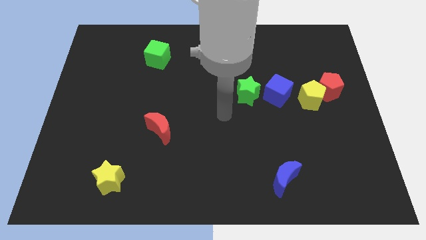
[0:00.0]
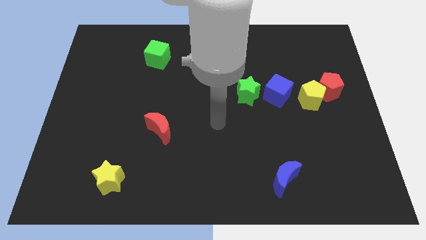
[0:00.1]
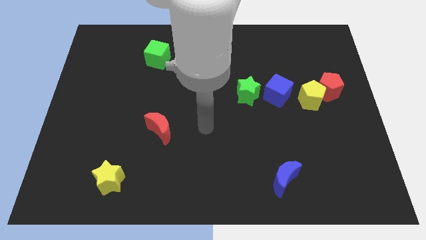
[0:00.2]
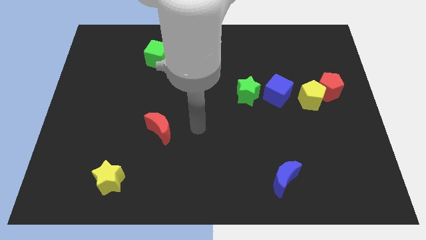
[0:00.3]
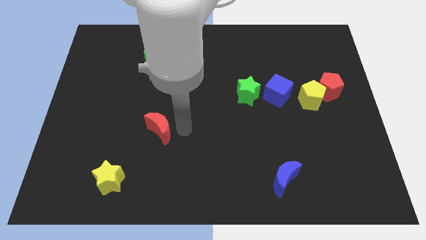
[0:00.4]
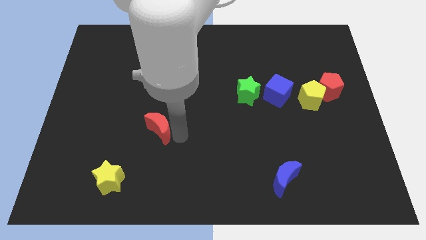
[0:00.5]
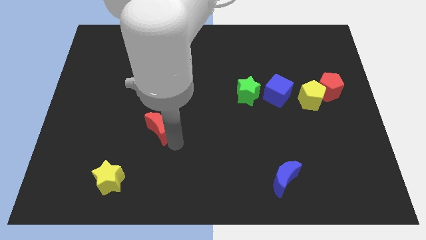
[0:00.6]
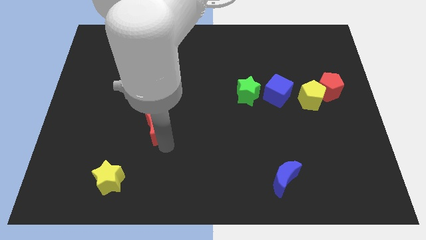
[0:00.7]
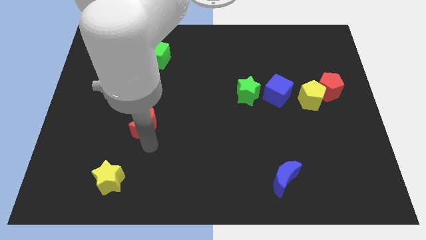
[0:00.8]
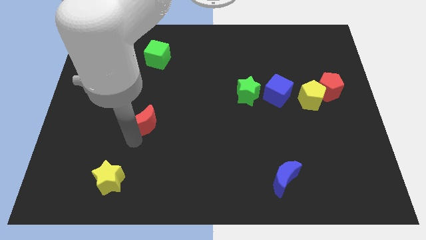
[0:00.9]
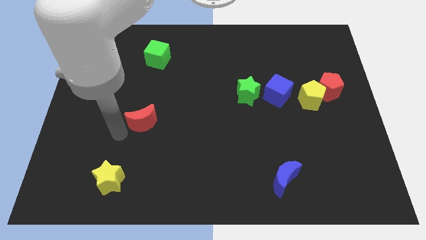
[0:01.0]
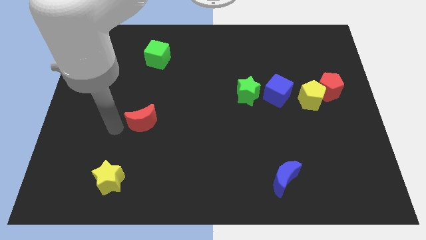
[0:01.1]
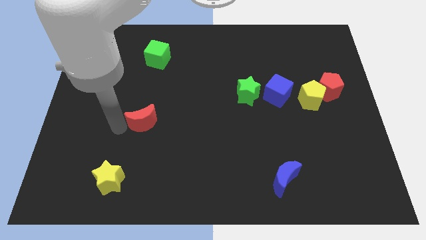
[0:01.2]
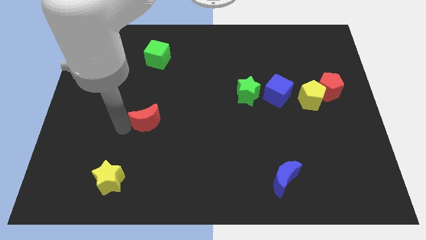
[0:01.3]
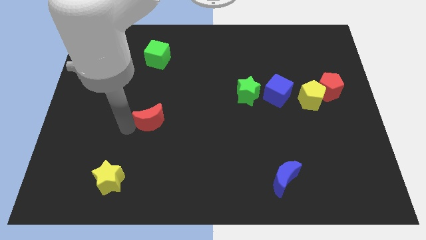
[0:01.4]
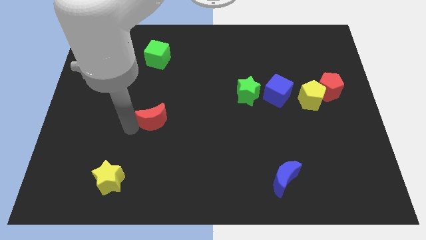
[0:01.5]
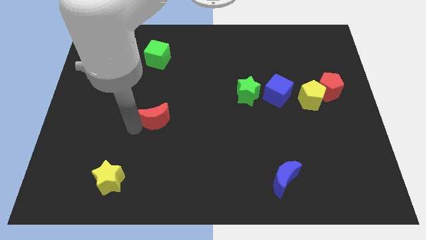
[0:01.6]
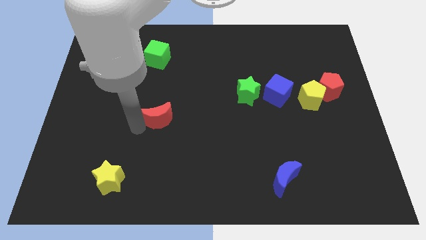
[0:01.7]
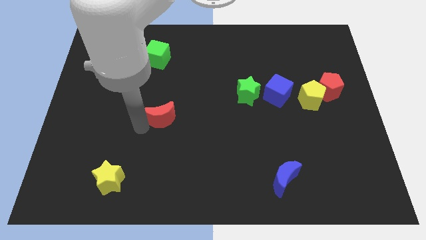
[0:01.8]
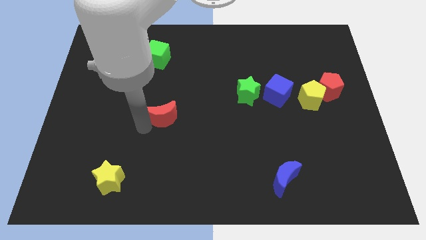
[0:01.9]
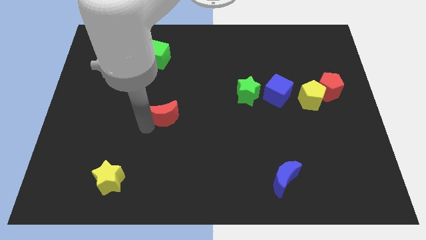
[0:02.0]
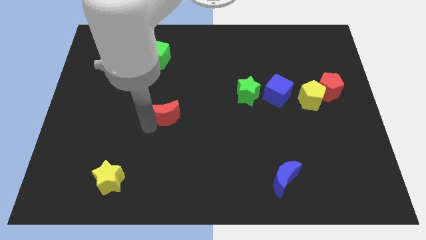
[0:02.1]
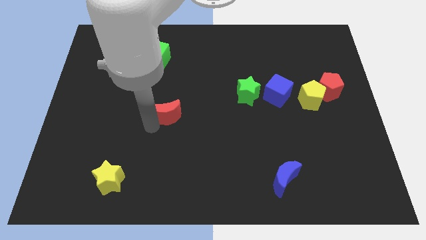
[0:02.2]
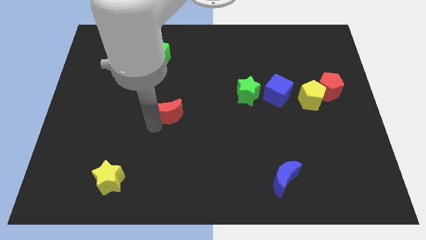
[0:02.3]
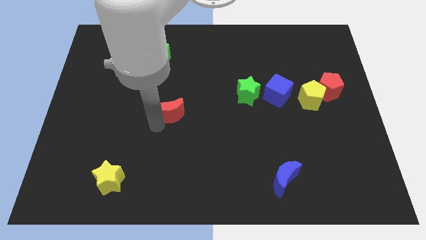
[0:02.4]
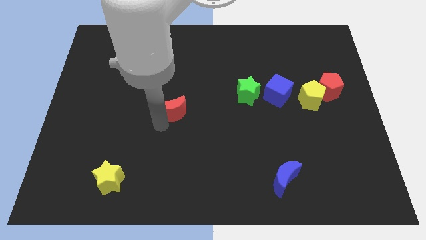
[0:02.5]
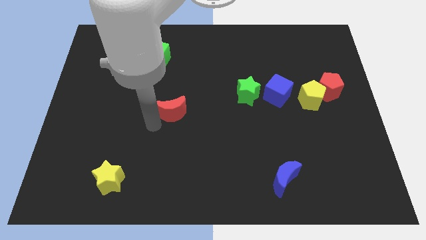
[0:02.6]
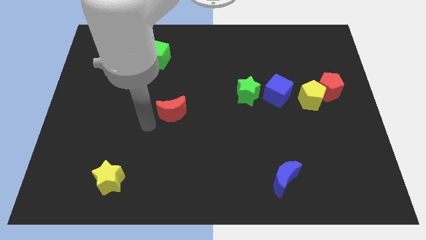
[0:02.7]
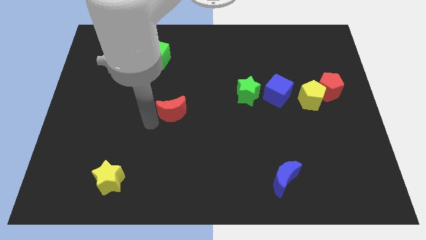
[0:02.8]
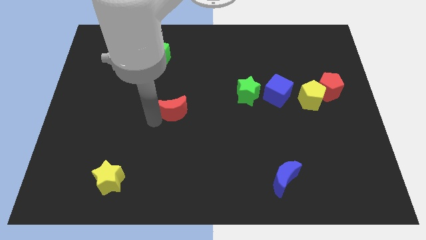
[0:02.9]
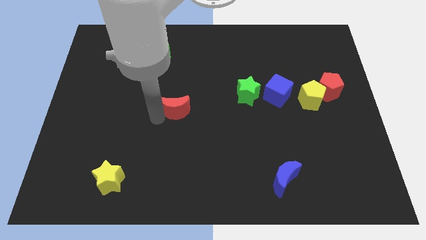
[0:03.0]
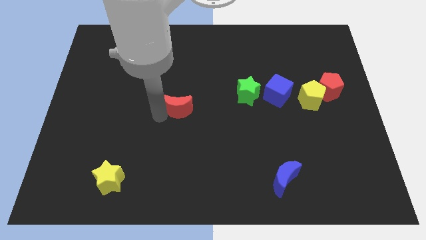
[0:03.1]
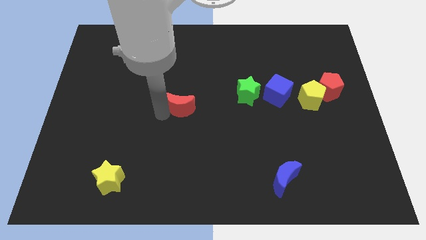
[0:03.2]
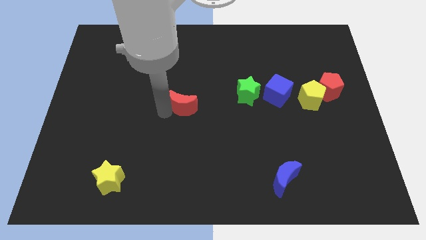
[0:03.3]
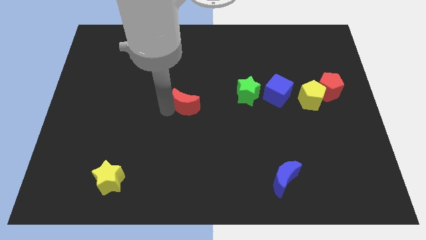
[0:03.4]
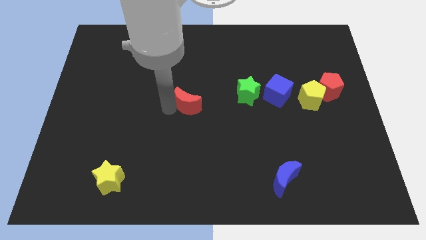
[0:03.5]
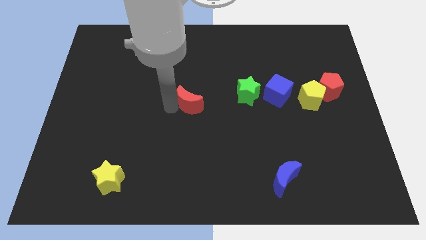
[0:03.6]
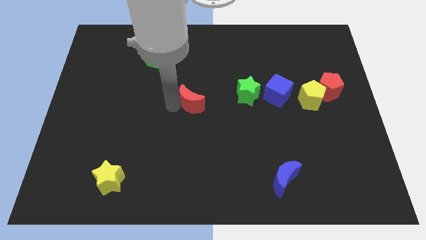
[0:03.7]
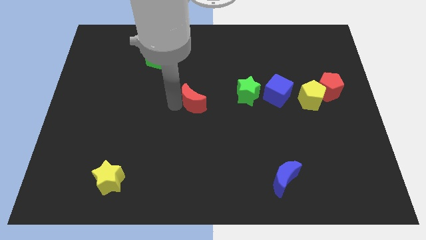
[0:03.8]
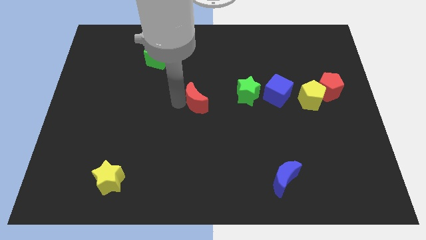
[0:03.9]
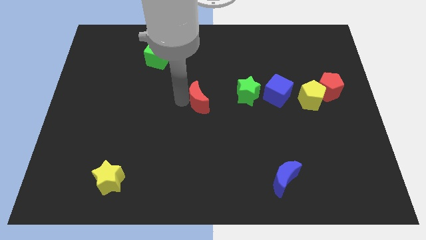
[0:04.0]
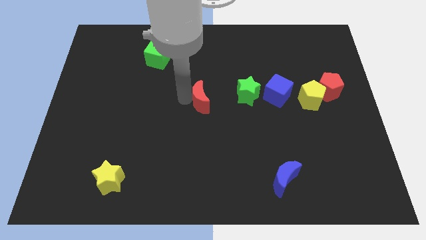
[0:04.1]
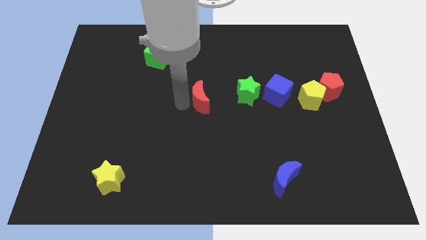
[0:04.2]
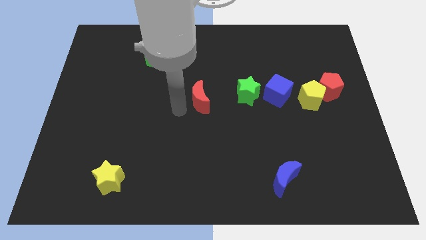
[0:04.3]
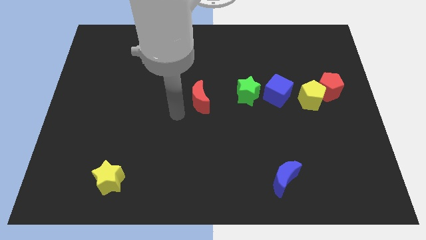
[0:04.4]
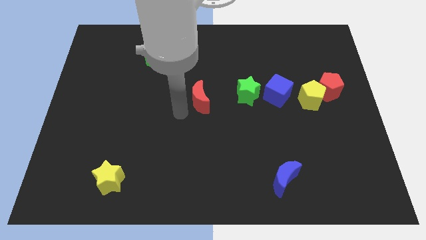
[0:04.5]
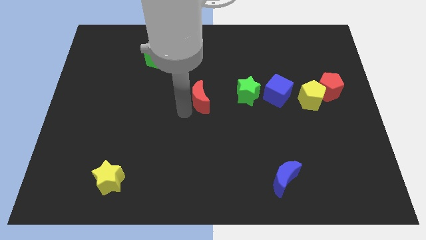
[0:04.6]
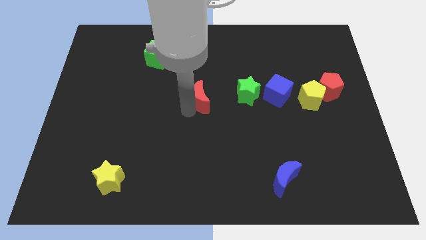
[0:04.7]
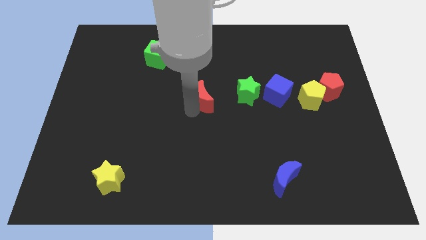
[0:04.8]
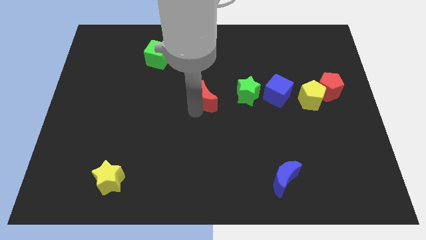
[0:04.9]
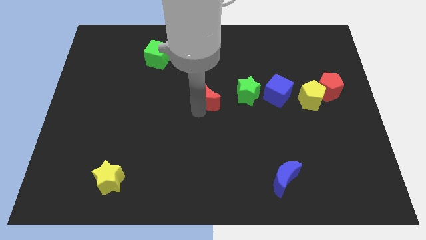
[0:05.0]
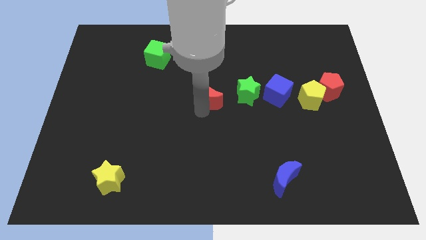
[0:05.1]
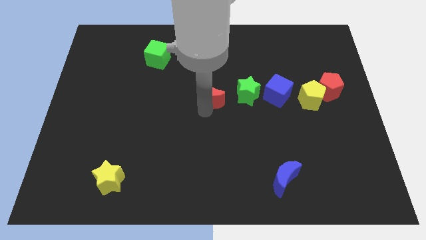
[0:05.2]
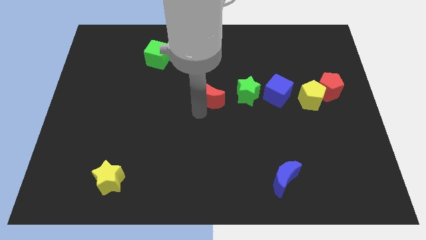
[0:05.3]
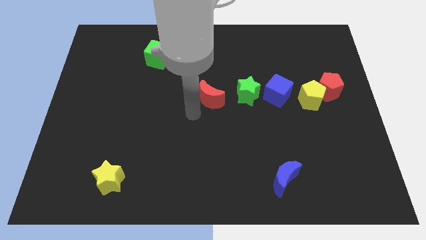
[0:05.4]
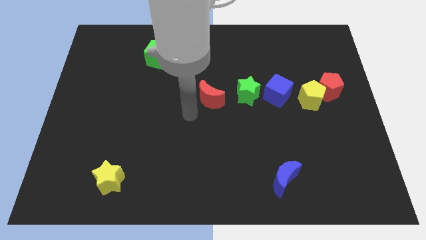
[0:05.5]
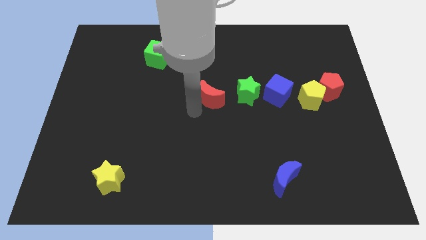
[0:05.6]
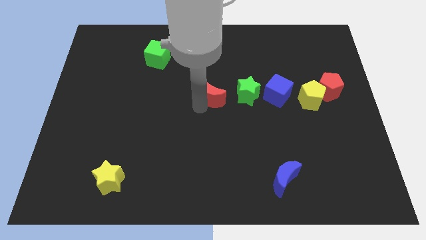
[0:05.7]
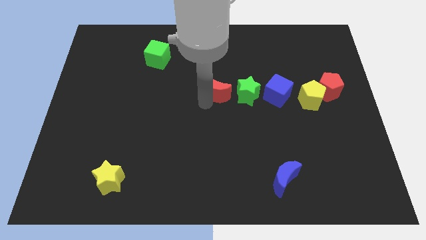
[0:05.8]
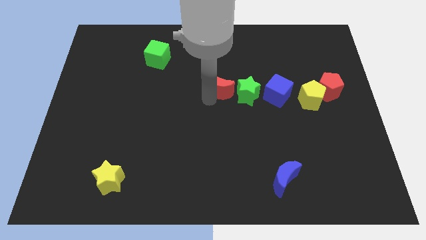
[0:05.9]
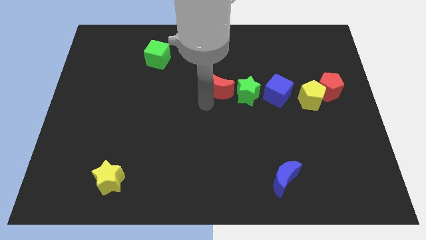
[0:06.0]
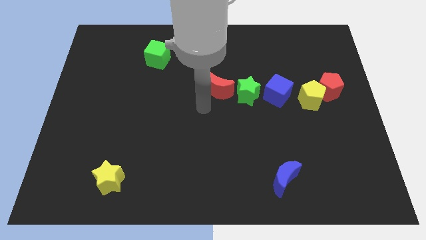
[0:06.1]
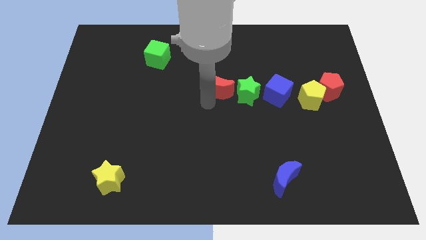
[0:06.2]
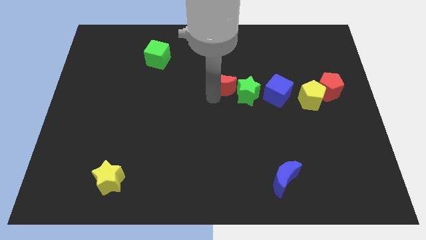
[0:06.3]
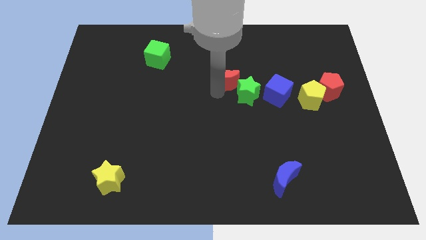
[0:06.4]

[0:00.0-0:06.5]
slide the red moon up and right

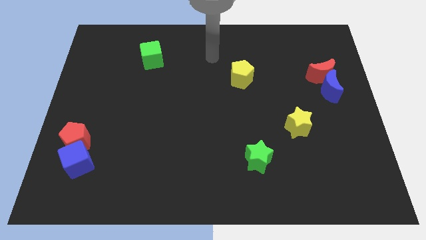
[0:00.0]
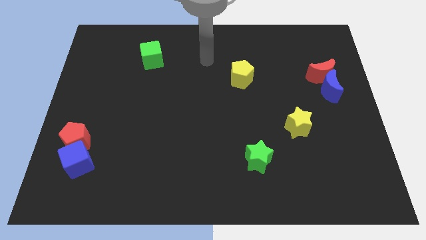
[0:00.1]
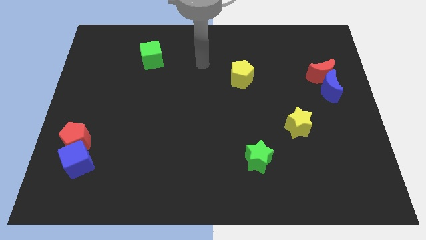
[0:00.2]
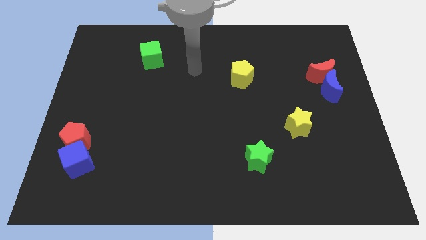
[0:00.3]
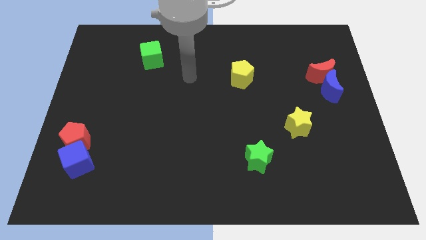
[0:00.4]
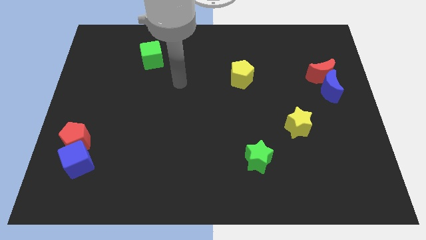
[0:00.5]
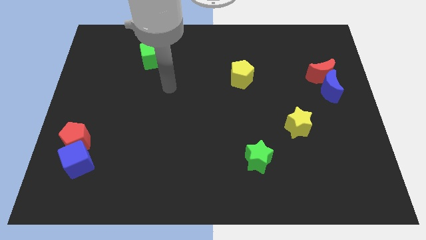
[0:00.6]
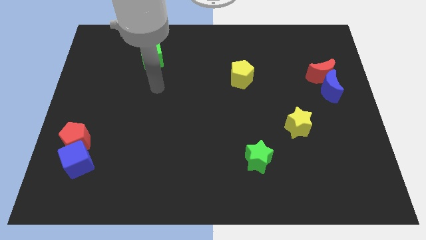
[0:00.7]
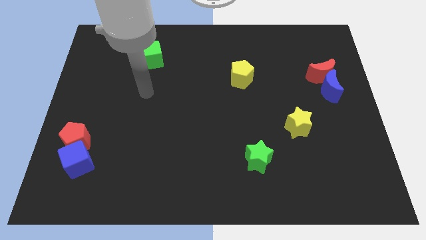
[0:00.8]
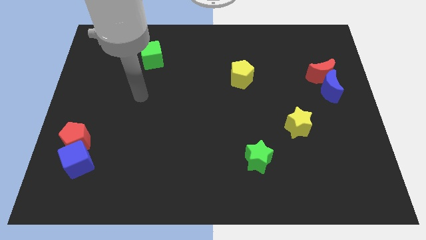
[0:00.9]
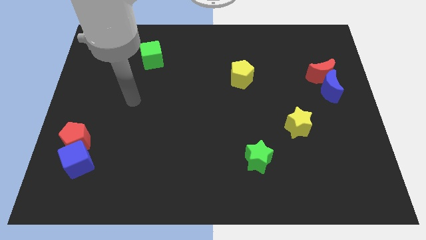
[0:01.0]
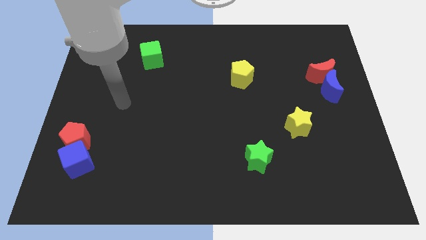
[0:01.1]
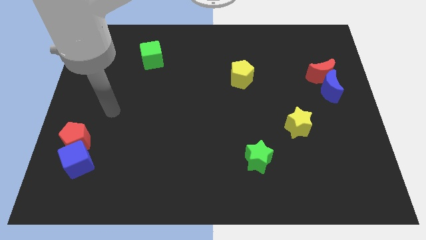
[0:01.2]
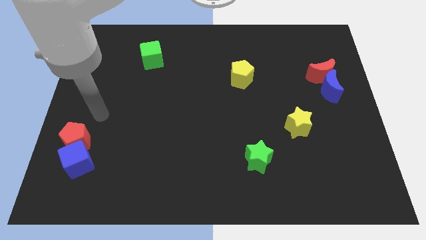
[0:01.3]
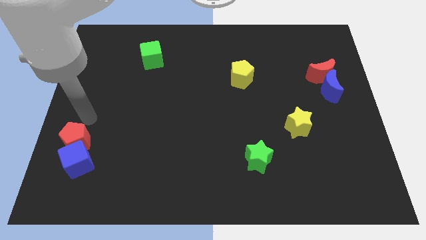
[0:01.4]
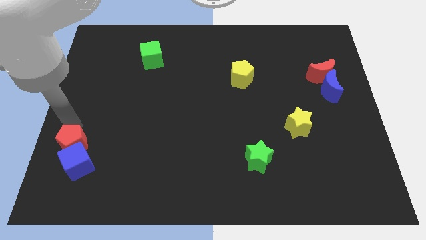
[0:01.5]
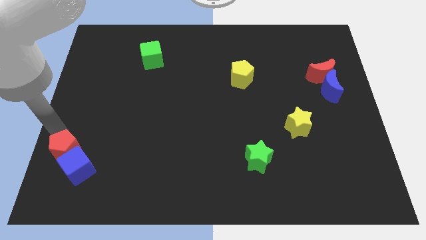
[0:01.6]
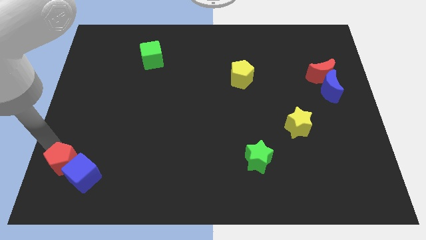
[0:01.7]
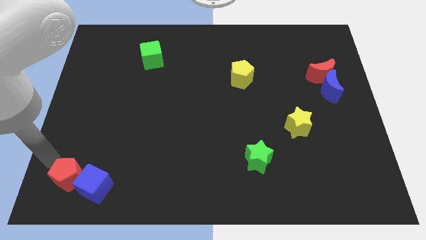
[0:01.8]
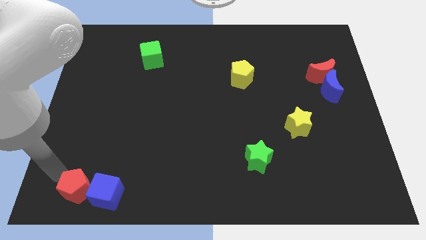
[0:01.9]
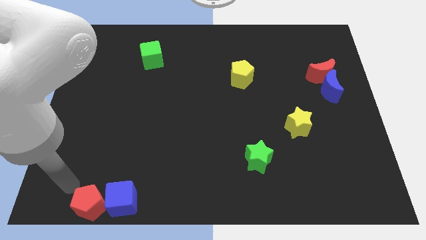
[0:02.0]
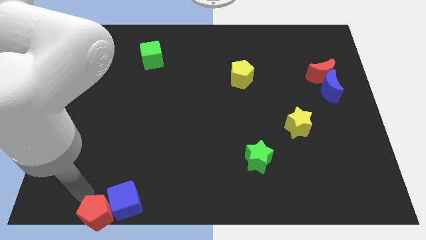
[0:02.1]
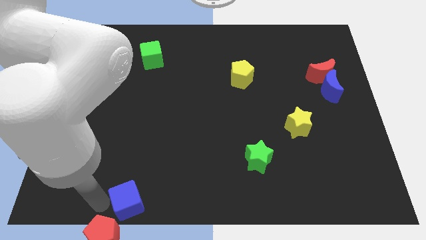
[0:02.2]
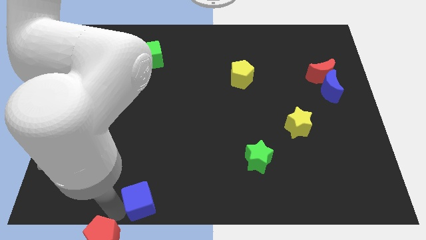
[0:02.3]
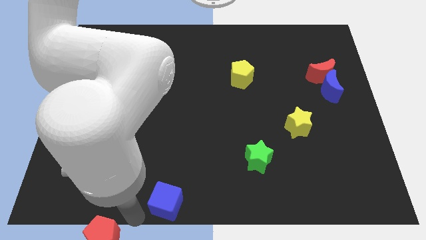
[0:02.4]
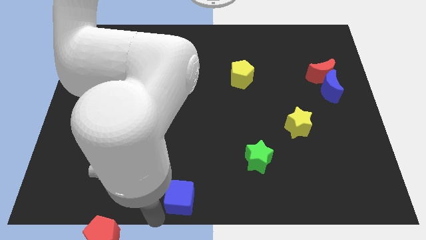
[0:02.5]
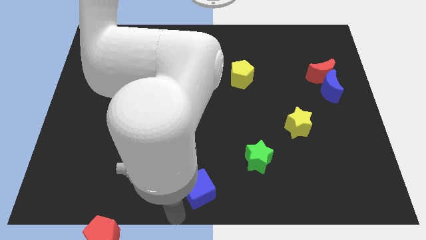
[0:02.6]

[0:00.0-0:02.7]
slide the blue cube right
